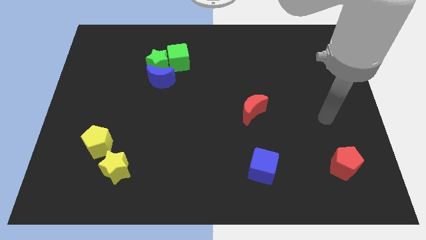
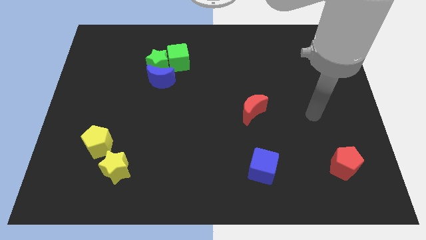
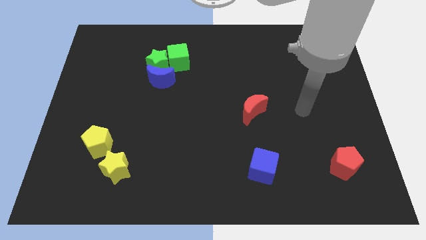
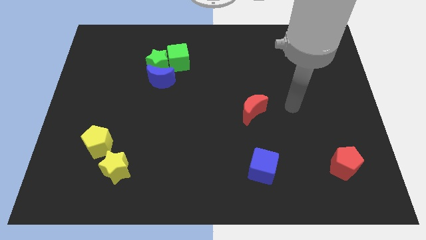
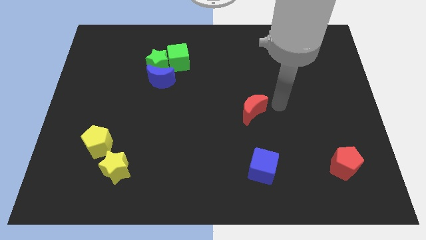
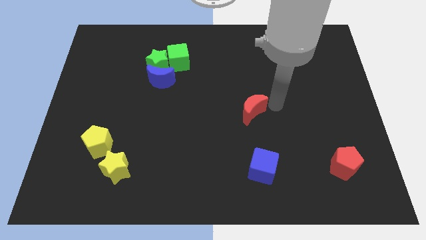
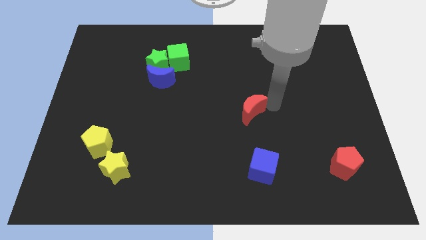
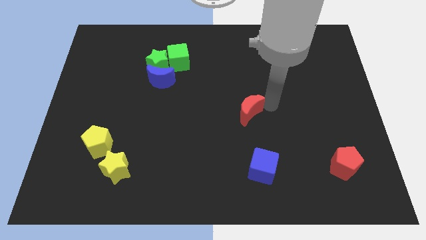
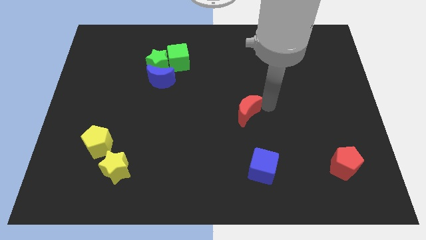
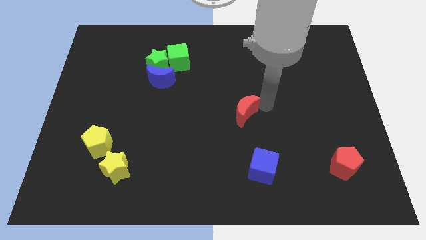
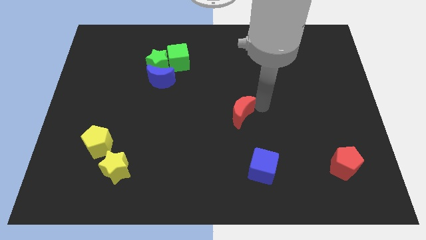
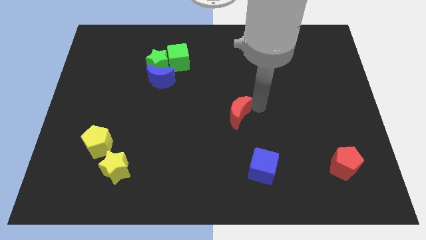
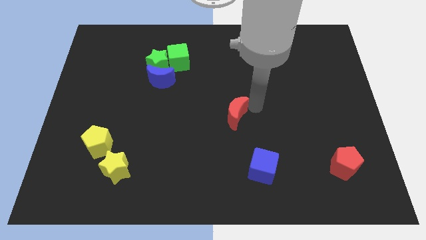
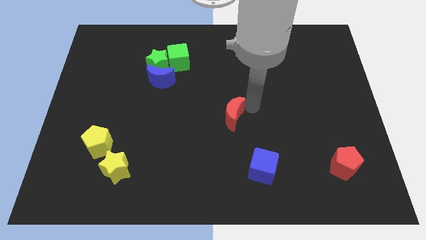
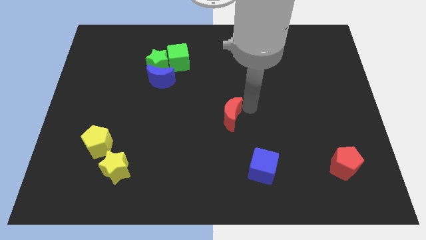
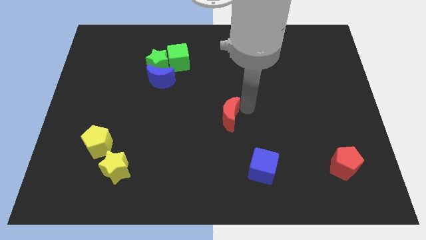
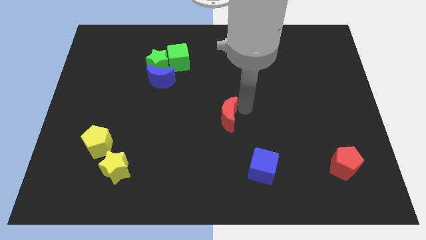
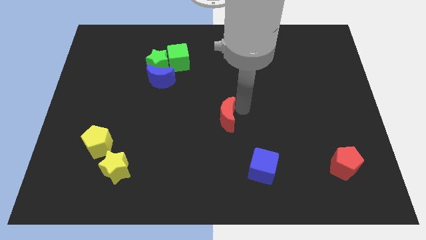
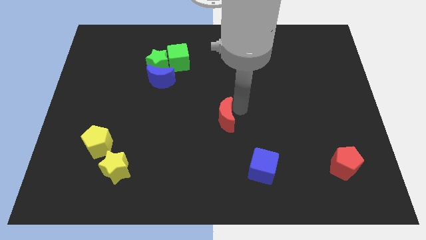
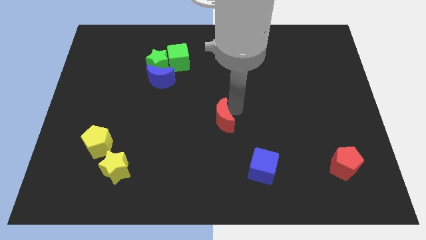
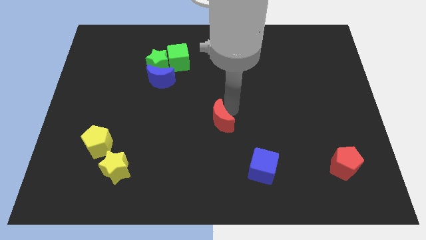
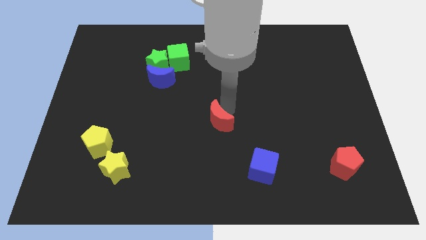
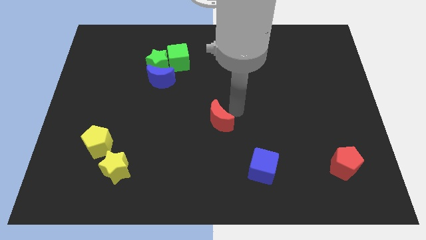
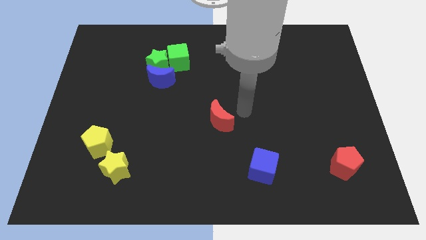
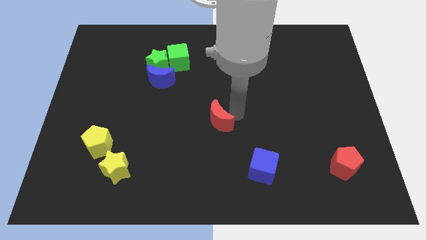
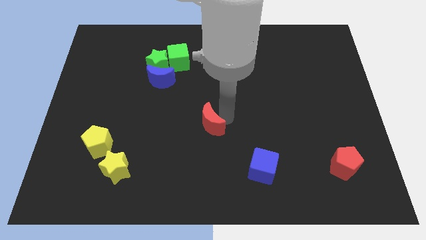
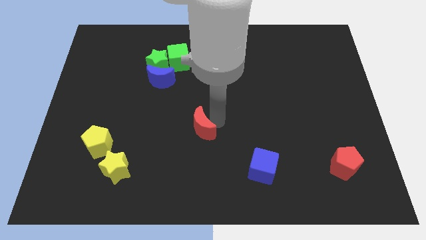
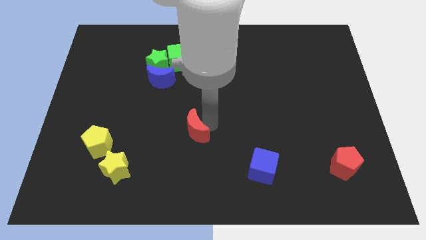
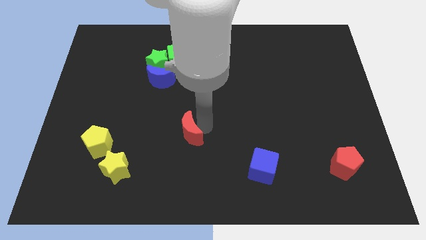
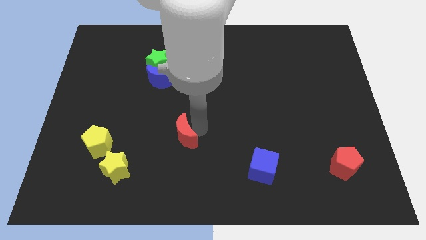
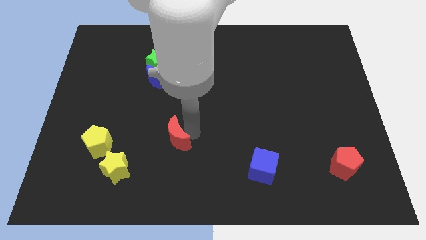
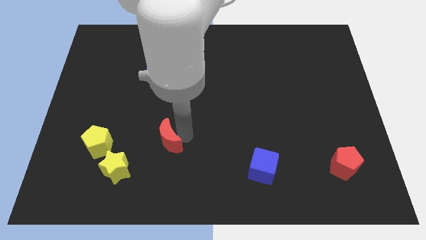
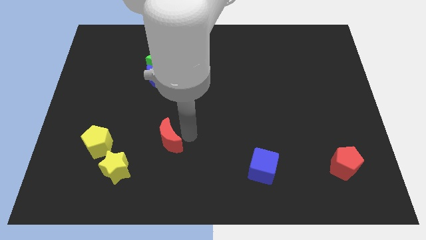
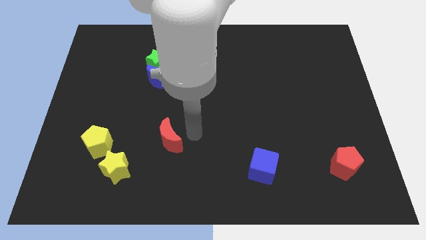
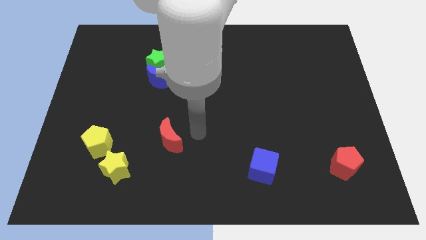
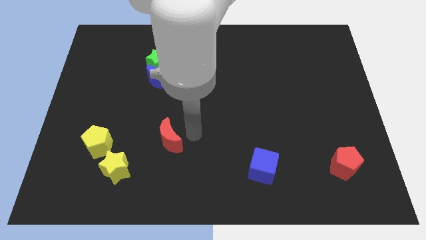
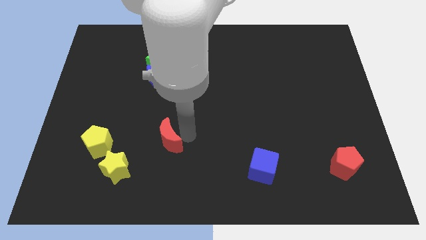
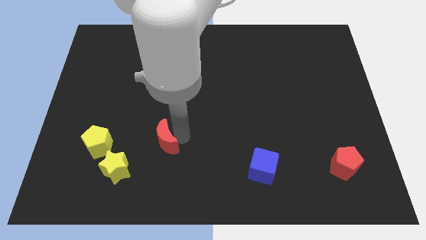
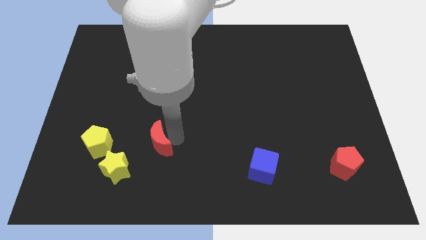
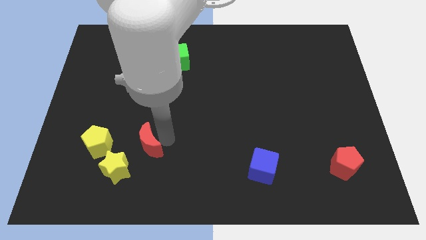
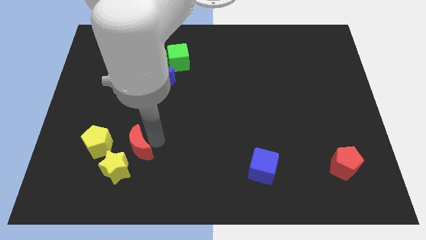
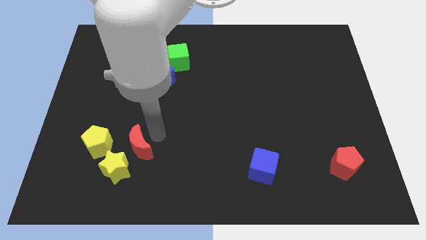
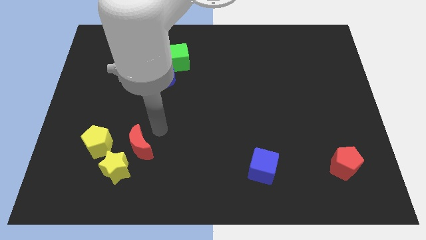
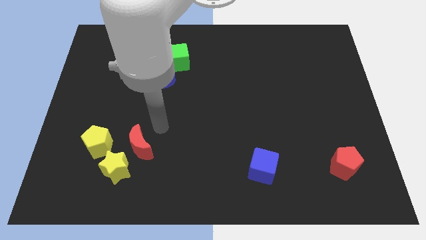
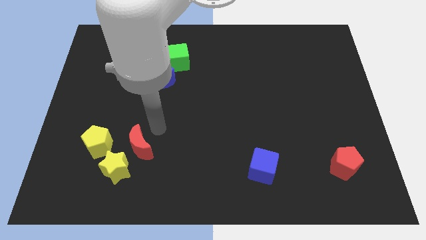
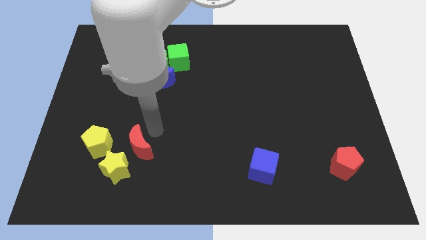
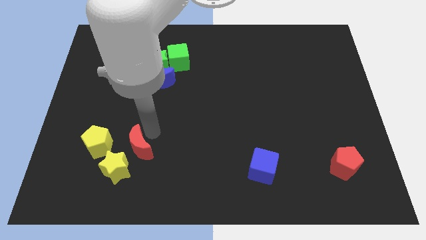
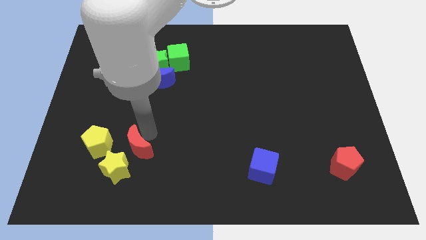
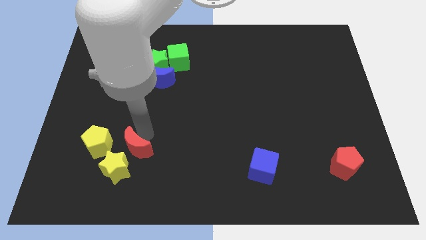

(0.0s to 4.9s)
slide the red moon towards the yellow star

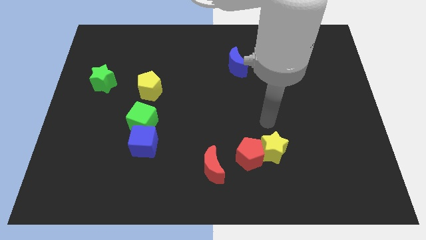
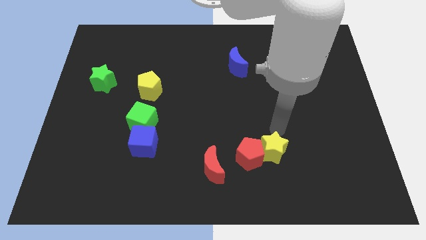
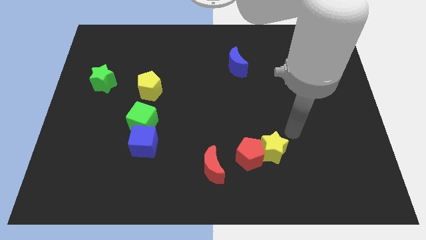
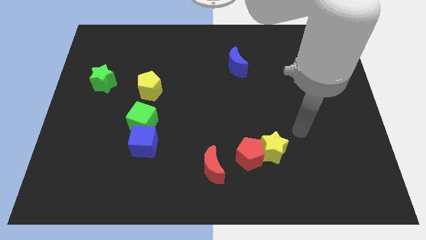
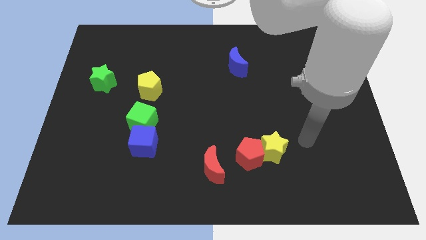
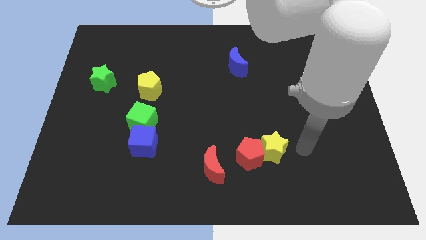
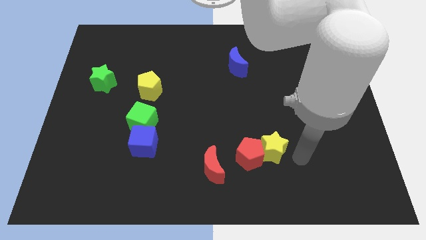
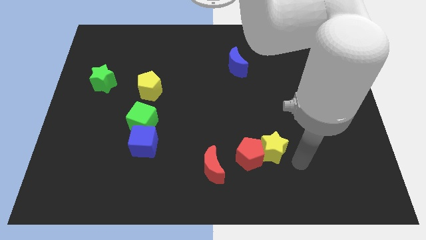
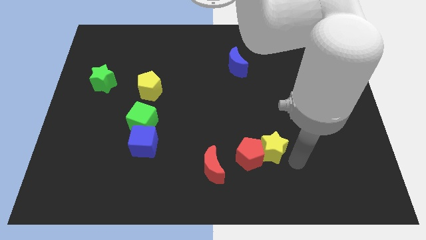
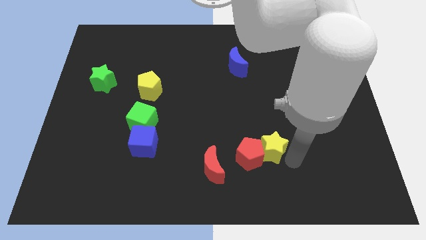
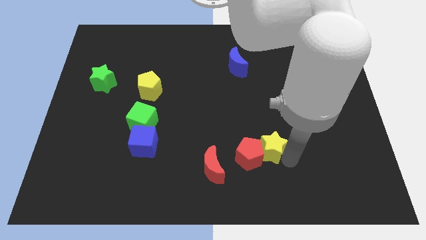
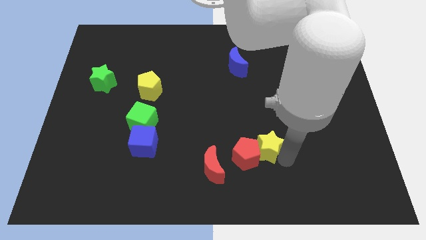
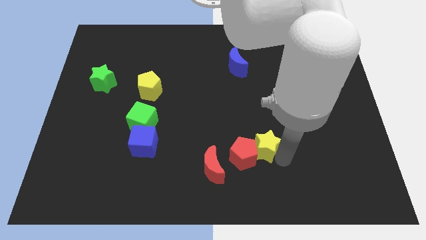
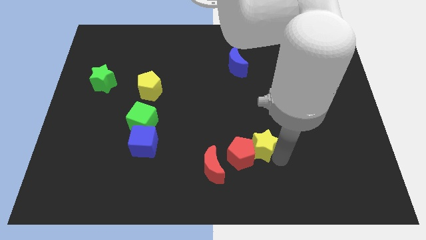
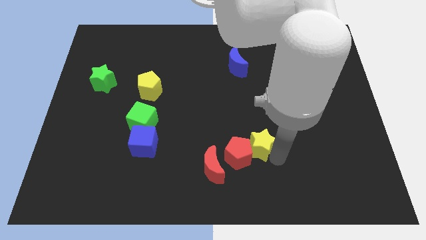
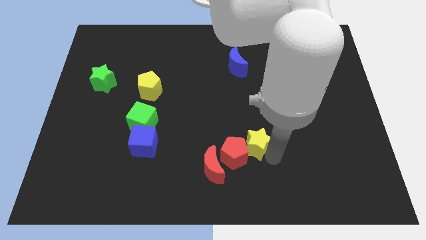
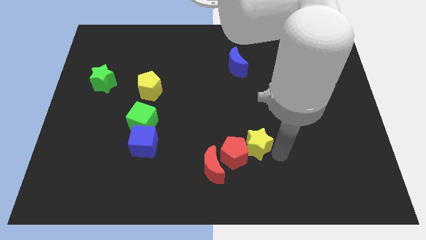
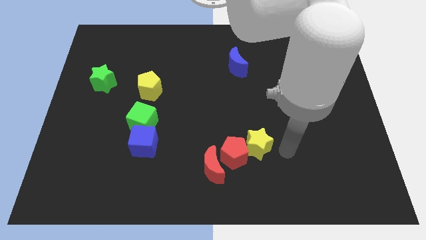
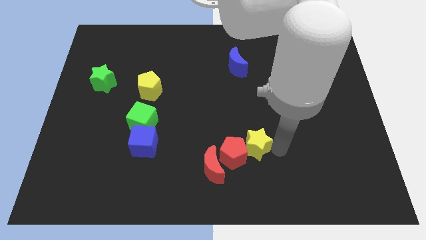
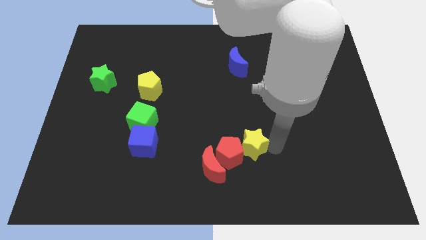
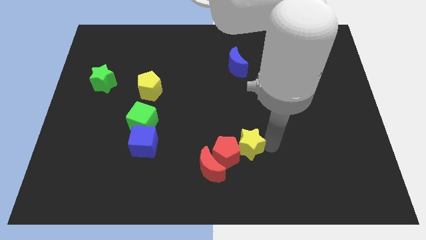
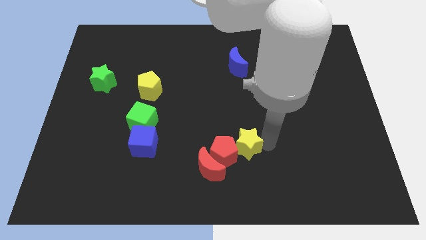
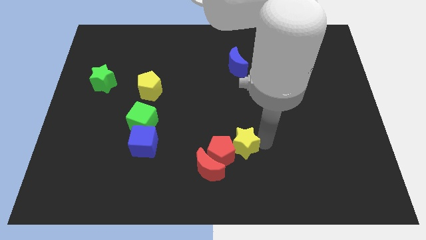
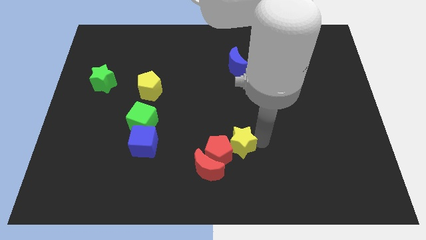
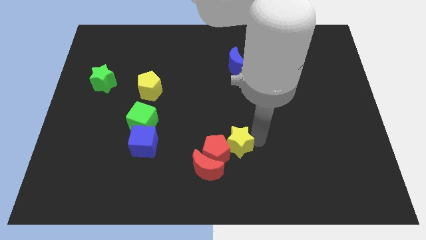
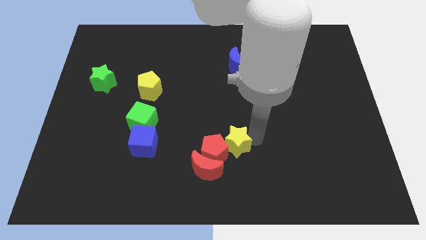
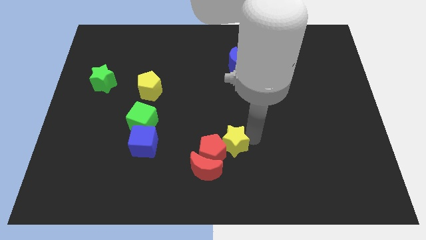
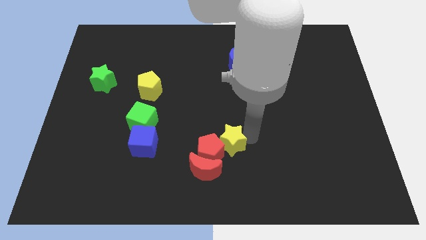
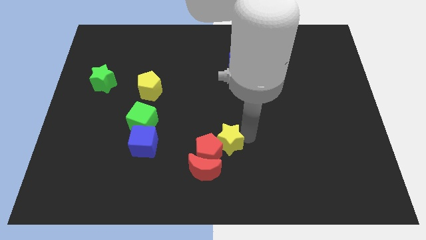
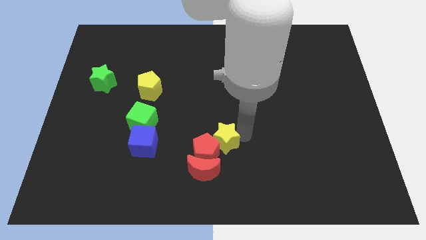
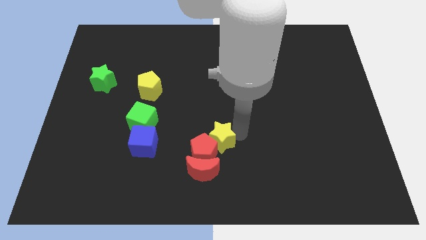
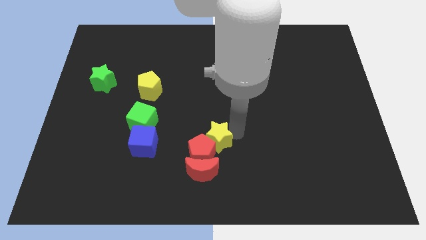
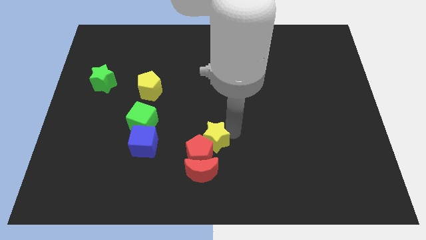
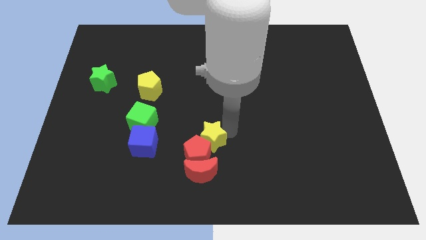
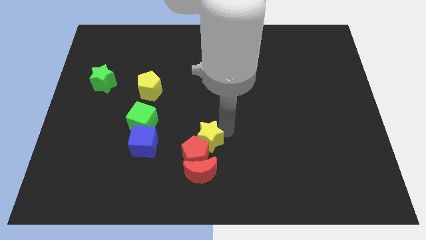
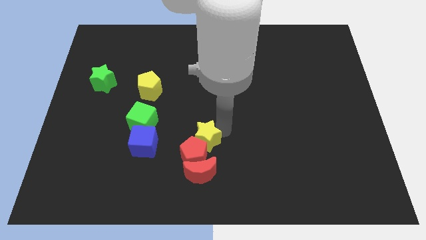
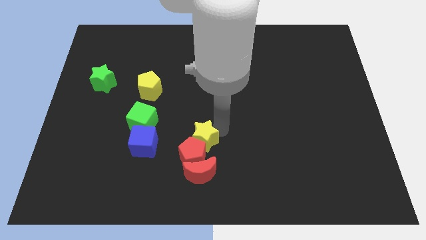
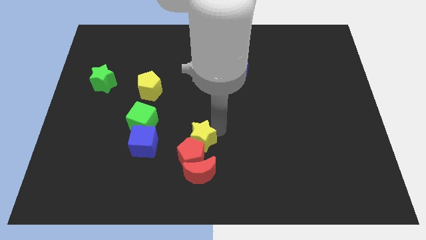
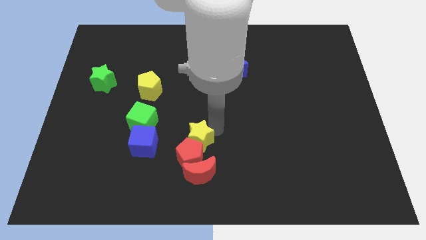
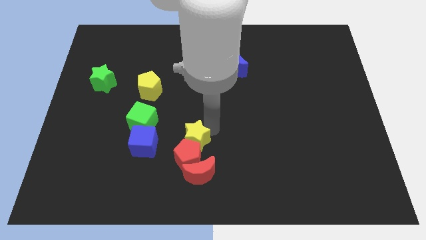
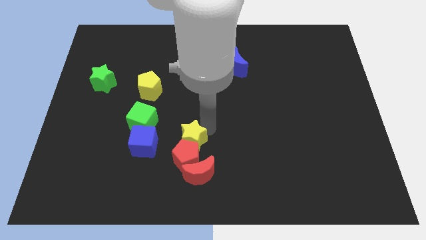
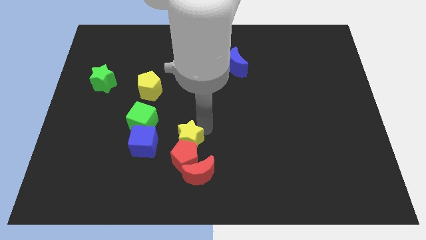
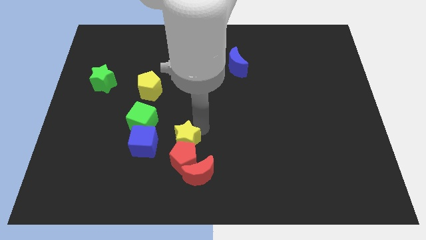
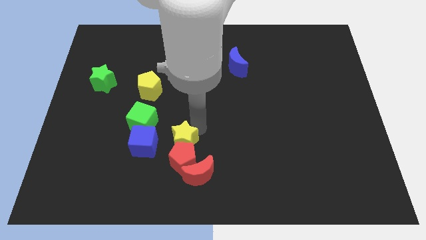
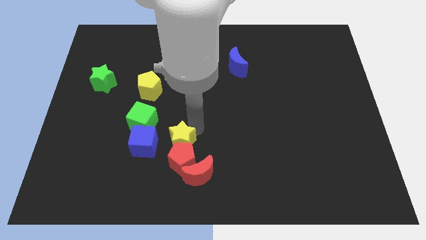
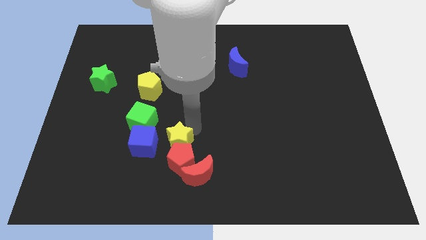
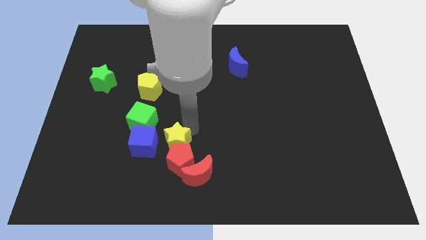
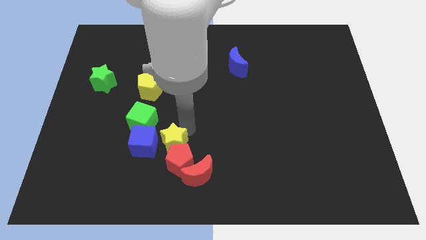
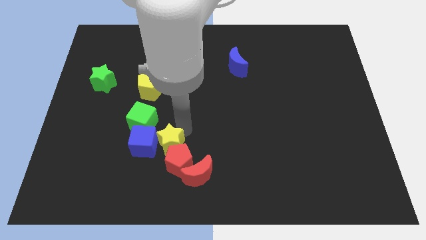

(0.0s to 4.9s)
slide the yellow star to the blue cube
